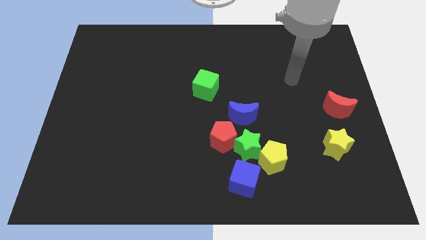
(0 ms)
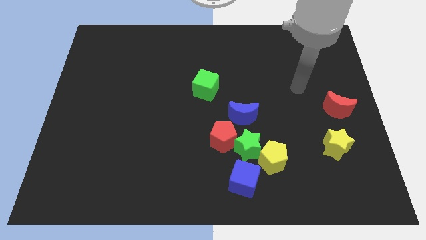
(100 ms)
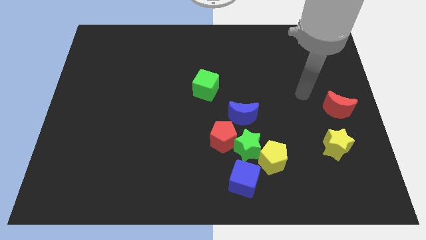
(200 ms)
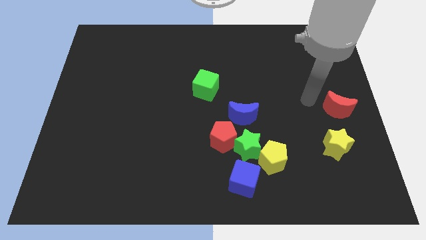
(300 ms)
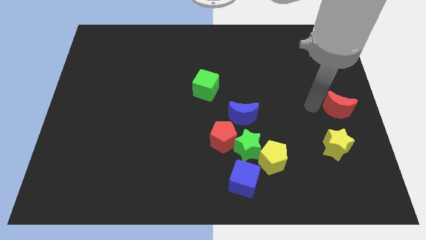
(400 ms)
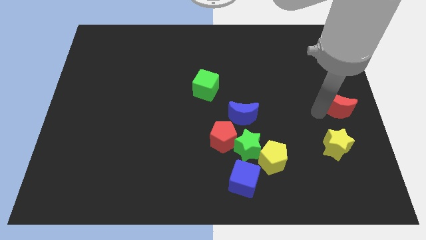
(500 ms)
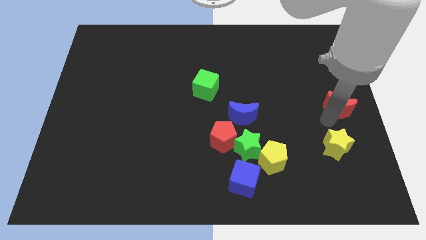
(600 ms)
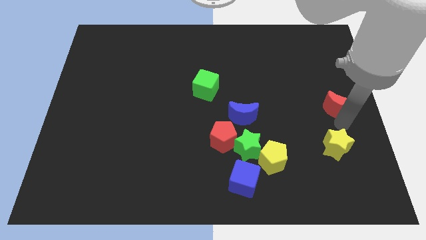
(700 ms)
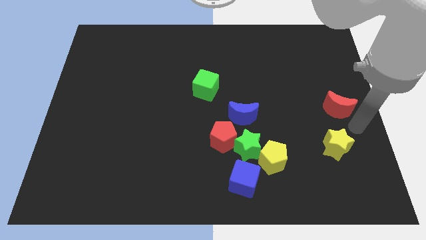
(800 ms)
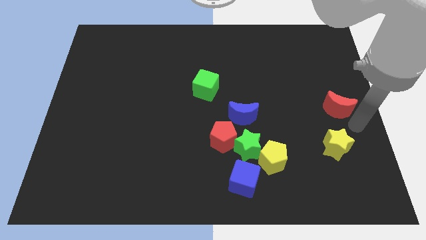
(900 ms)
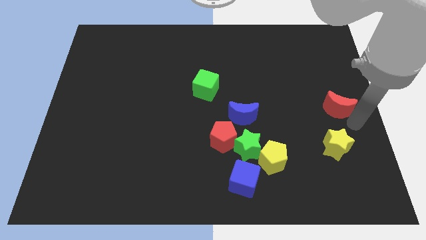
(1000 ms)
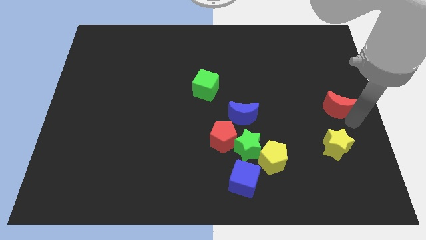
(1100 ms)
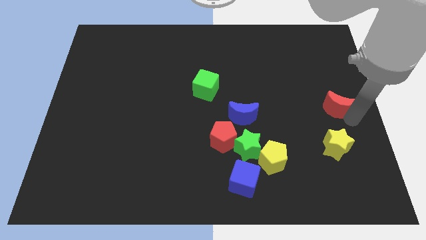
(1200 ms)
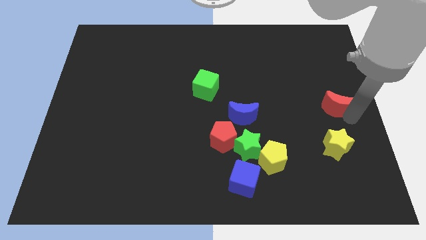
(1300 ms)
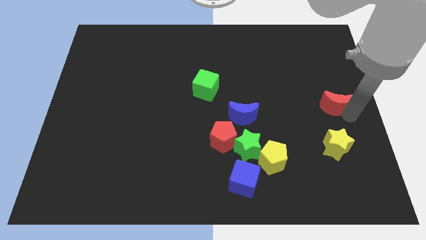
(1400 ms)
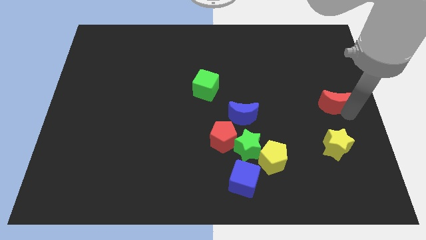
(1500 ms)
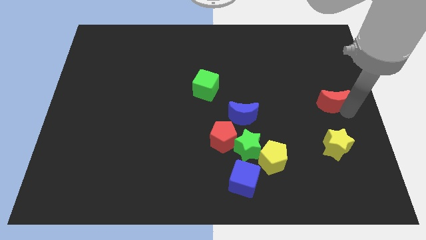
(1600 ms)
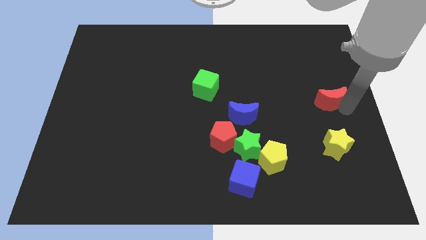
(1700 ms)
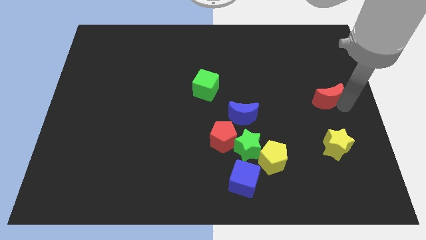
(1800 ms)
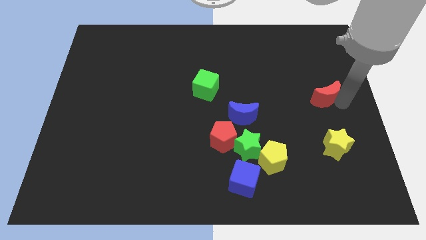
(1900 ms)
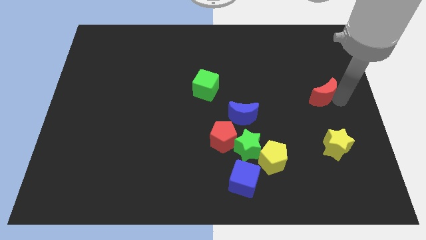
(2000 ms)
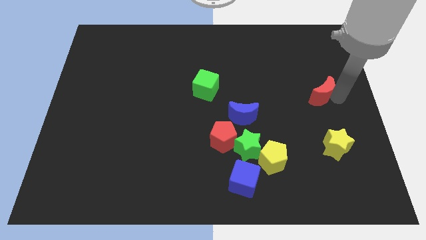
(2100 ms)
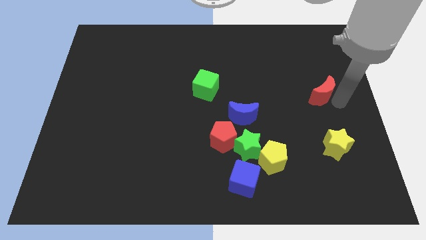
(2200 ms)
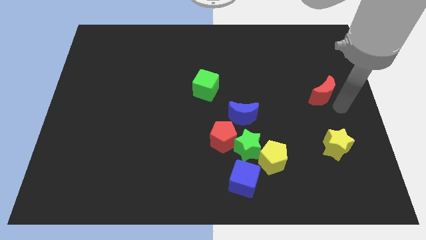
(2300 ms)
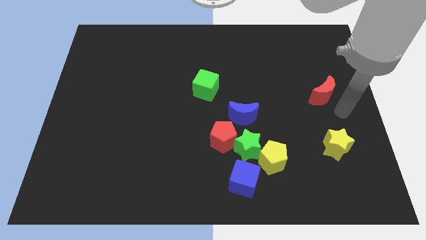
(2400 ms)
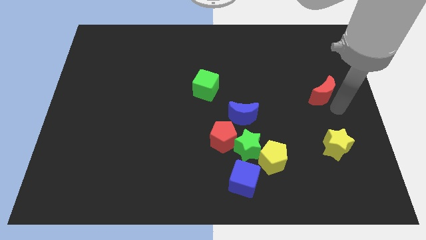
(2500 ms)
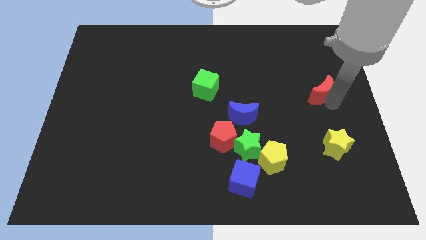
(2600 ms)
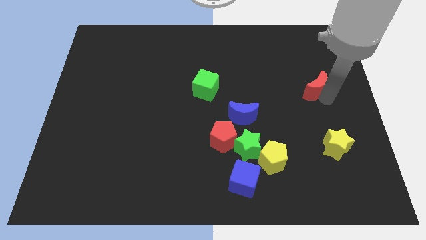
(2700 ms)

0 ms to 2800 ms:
slide the red moon a bit upwards and to the left

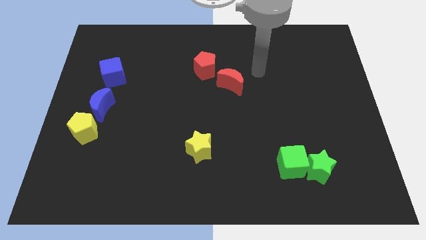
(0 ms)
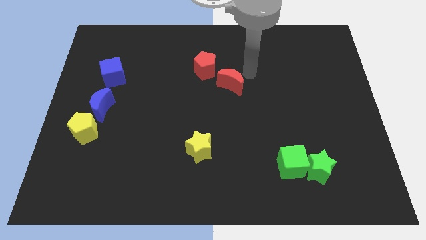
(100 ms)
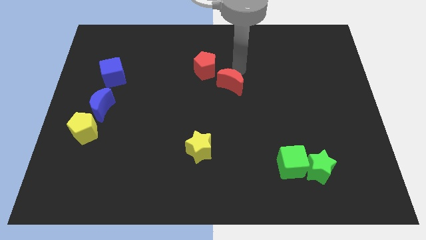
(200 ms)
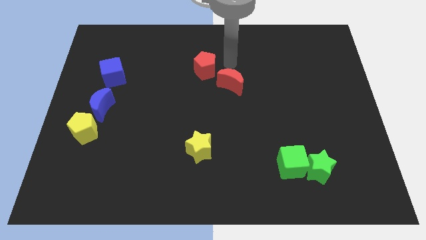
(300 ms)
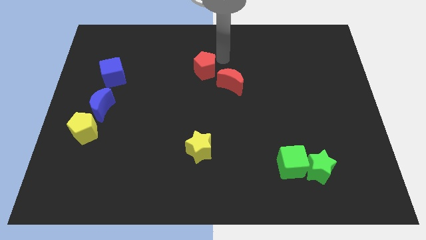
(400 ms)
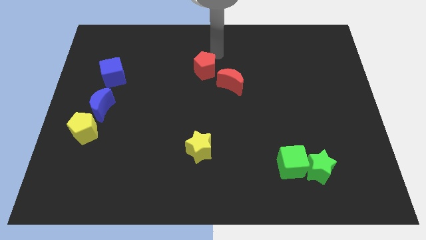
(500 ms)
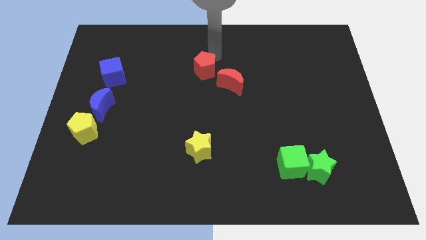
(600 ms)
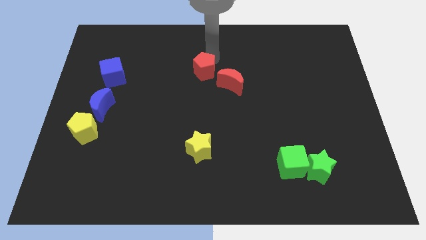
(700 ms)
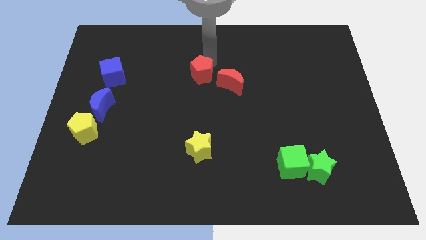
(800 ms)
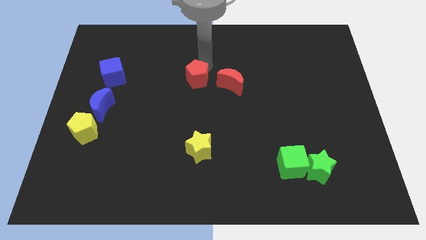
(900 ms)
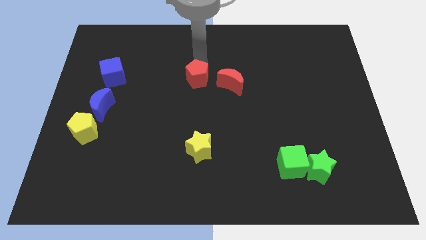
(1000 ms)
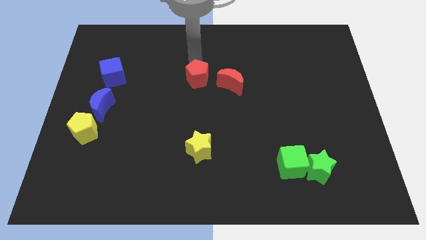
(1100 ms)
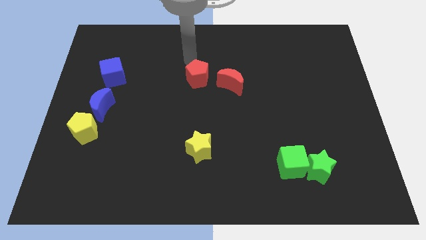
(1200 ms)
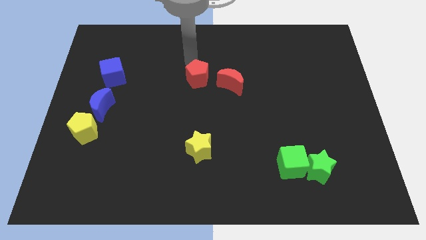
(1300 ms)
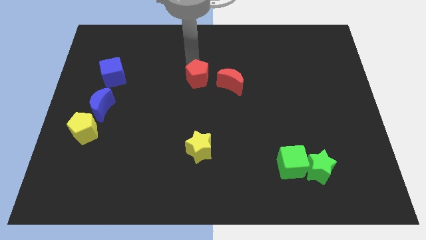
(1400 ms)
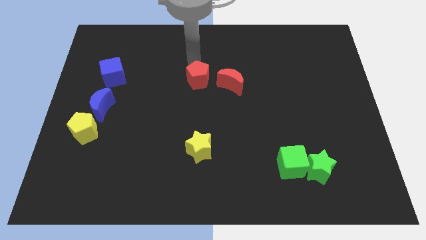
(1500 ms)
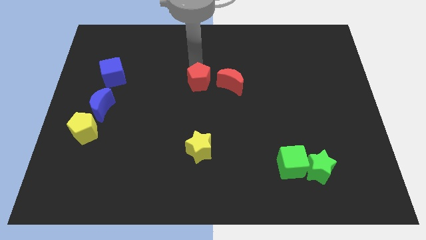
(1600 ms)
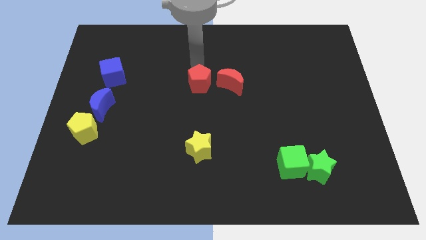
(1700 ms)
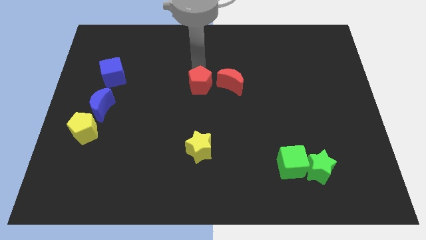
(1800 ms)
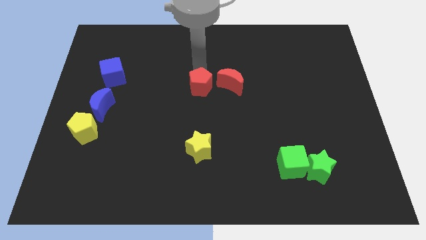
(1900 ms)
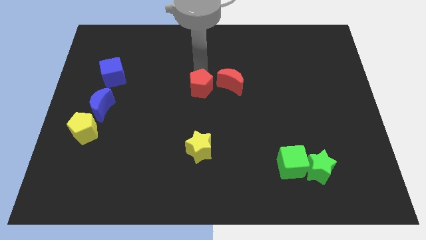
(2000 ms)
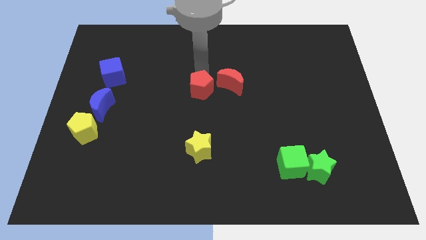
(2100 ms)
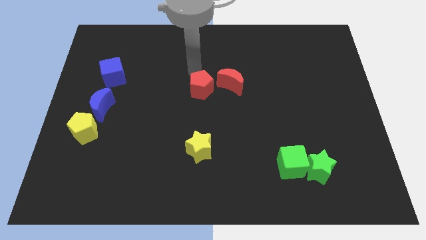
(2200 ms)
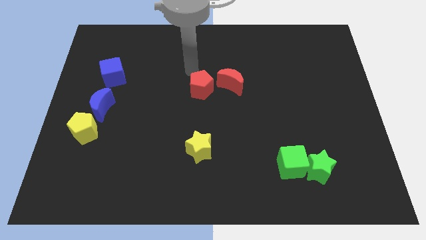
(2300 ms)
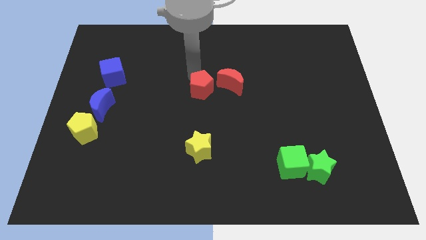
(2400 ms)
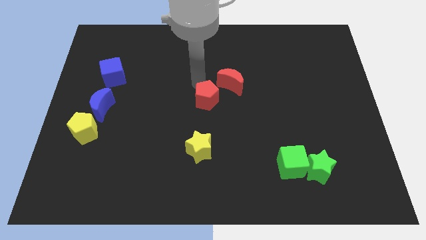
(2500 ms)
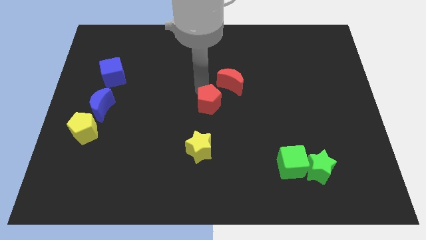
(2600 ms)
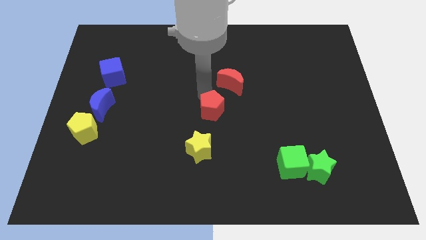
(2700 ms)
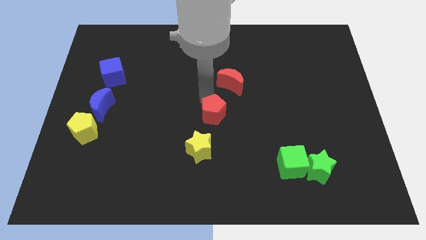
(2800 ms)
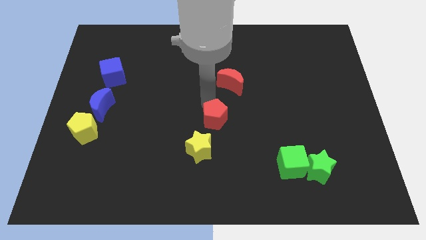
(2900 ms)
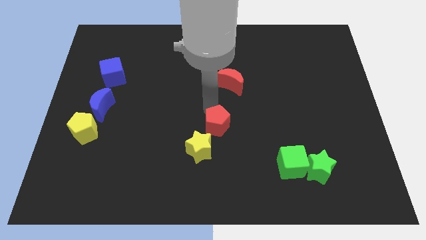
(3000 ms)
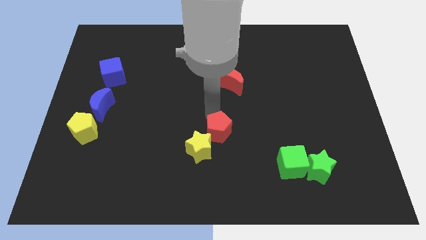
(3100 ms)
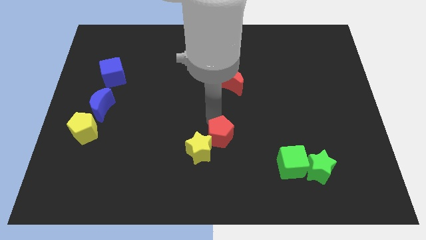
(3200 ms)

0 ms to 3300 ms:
move the red pentagon down

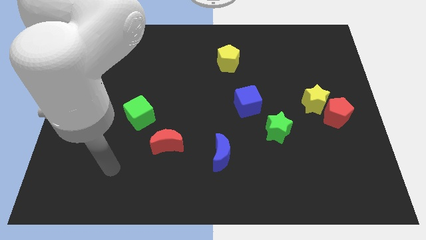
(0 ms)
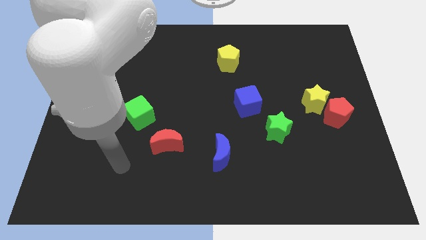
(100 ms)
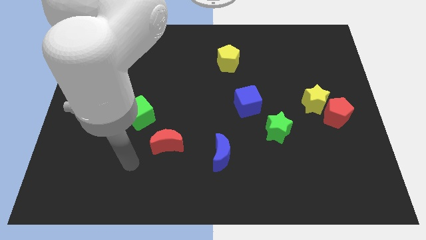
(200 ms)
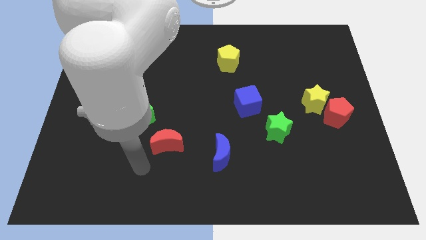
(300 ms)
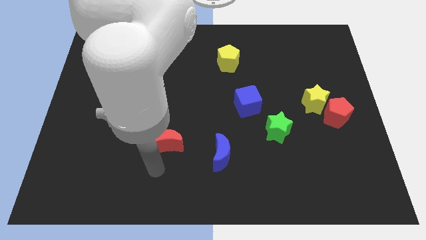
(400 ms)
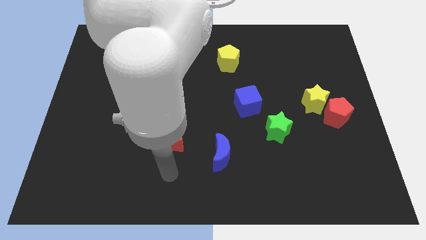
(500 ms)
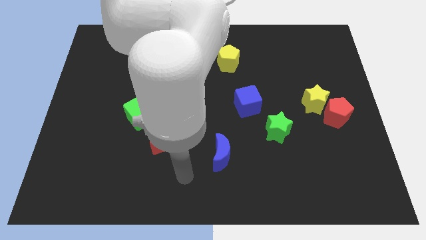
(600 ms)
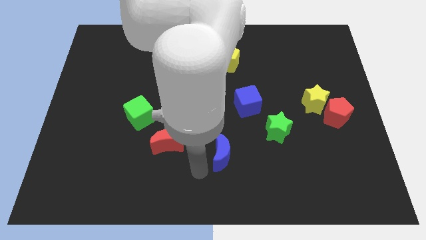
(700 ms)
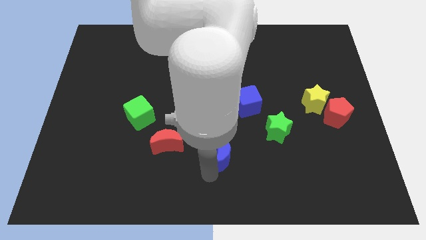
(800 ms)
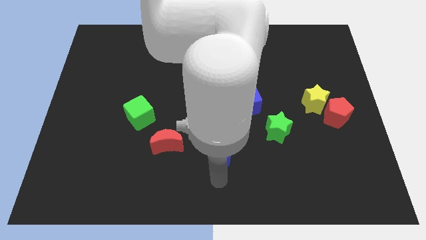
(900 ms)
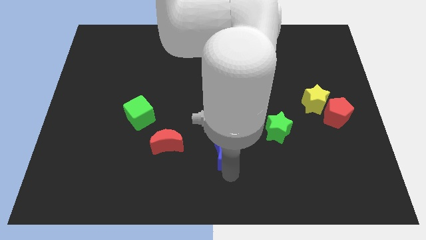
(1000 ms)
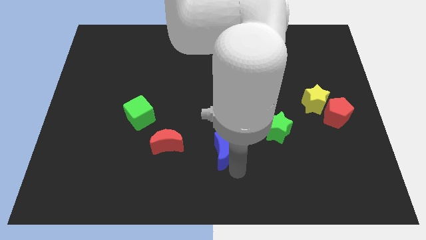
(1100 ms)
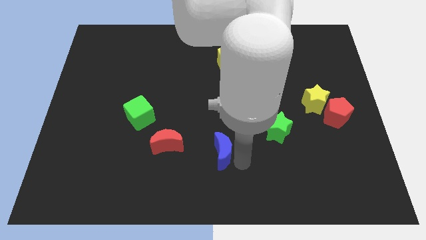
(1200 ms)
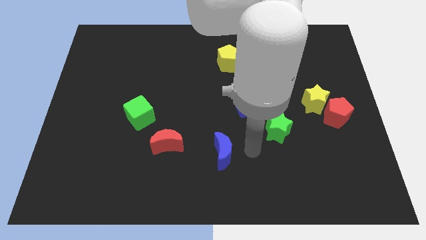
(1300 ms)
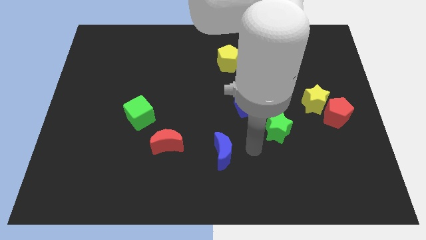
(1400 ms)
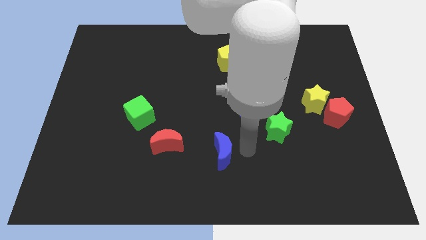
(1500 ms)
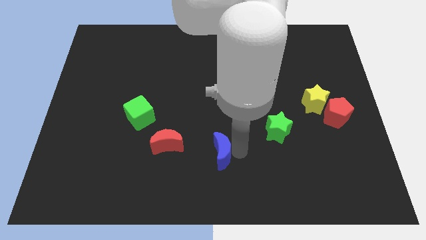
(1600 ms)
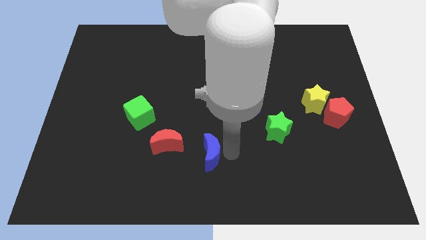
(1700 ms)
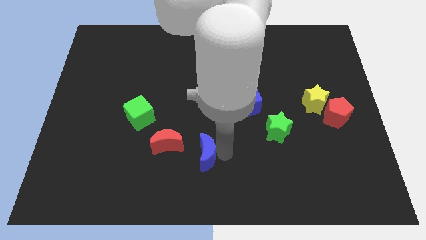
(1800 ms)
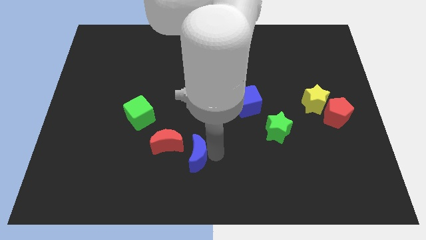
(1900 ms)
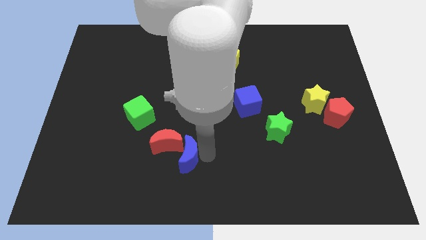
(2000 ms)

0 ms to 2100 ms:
slightly push the blue moon left
